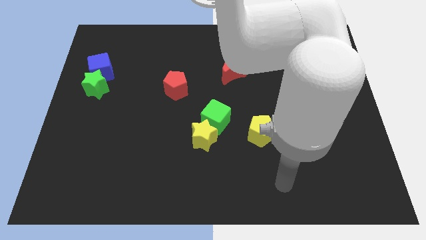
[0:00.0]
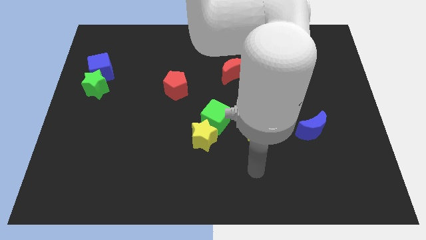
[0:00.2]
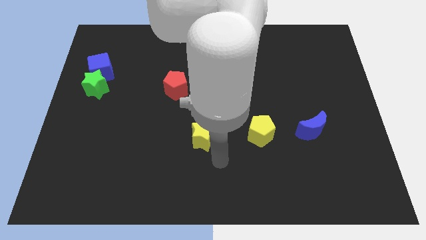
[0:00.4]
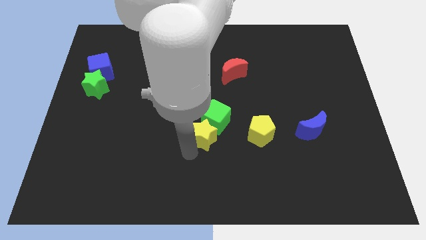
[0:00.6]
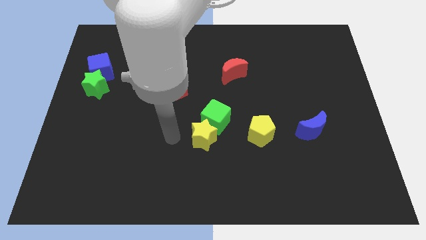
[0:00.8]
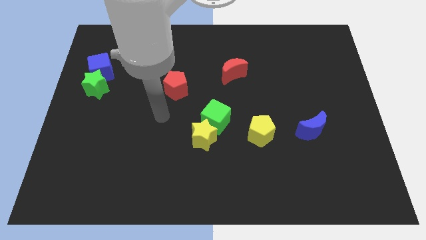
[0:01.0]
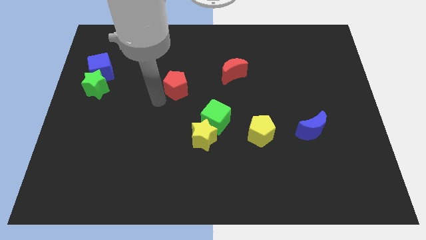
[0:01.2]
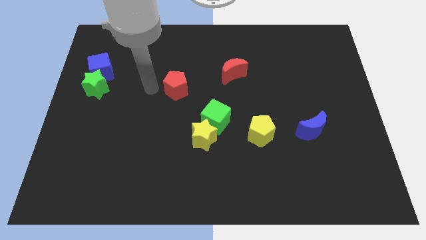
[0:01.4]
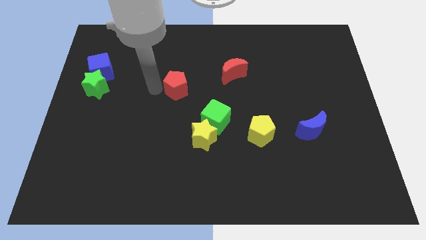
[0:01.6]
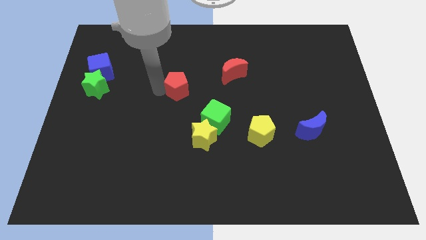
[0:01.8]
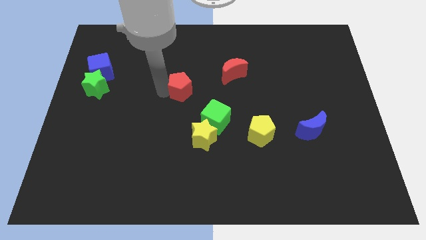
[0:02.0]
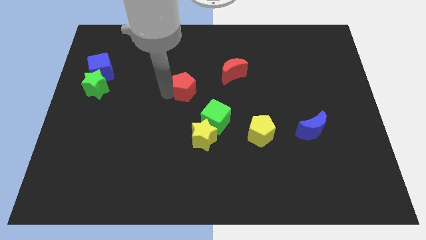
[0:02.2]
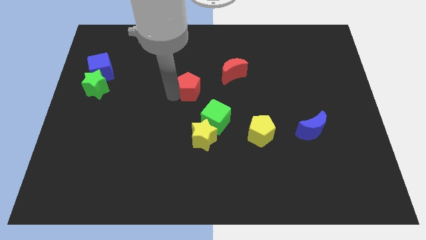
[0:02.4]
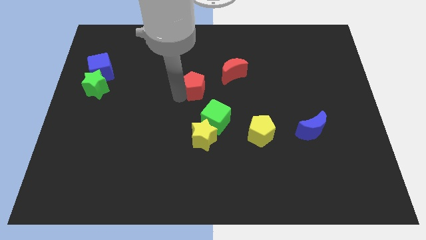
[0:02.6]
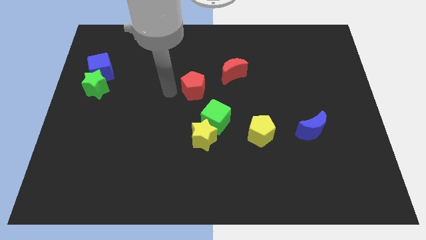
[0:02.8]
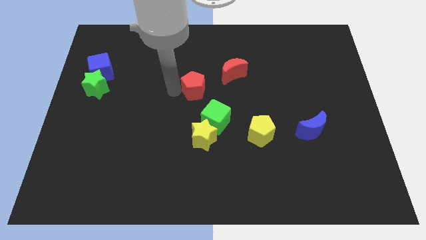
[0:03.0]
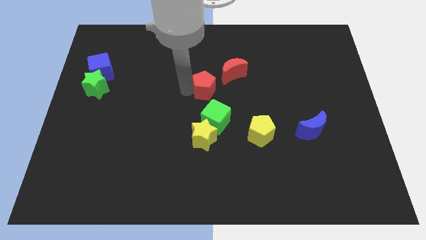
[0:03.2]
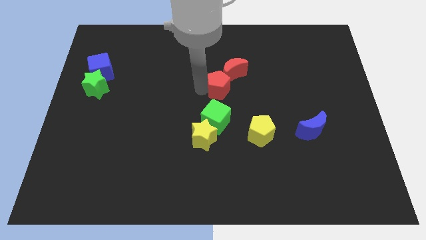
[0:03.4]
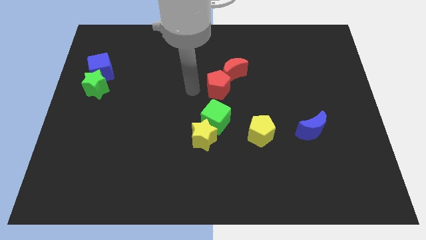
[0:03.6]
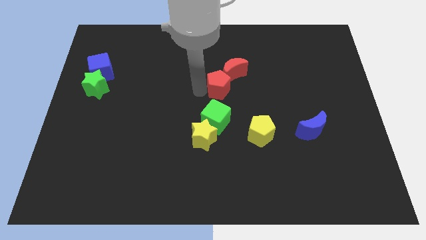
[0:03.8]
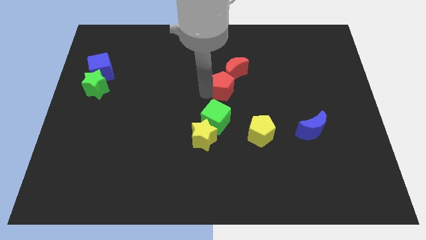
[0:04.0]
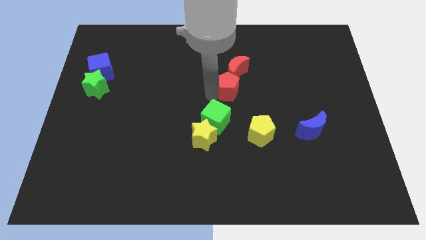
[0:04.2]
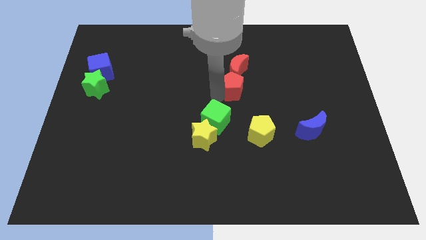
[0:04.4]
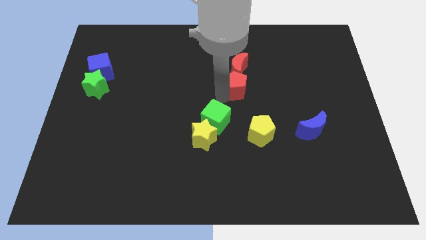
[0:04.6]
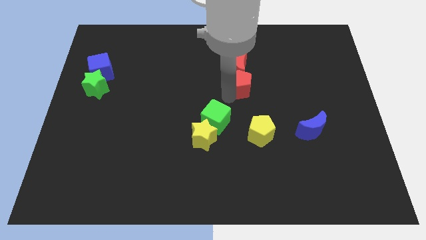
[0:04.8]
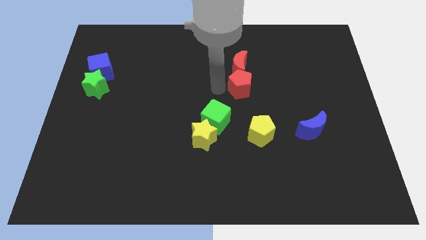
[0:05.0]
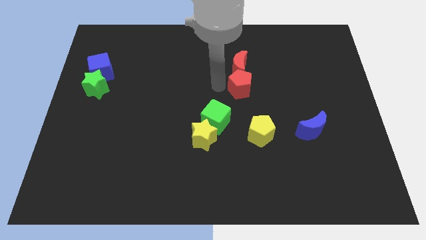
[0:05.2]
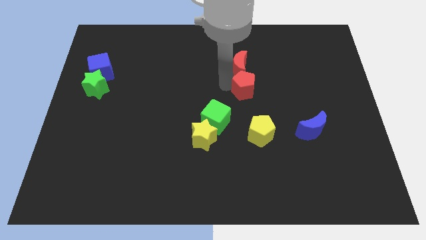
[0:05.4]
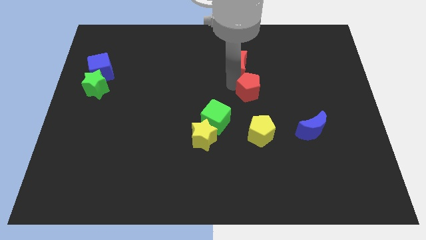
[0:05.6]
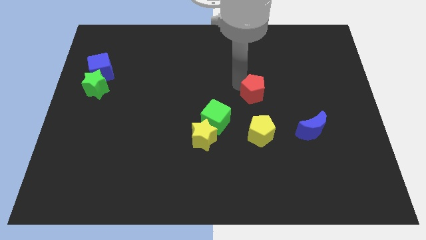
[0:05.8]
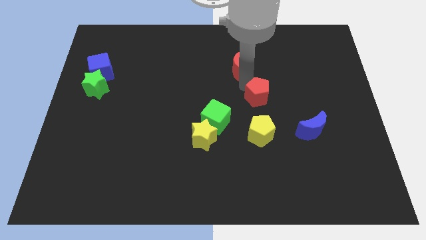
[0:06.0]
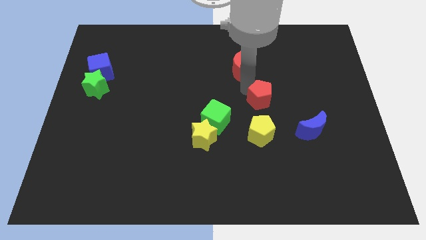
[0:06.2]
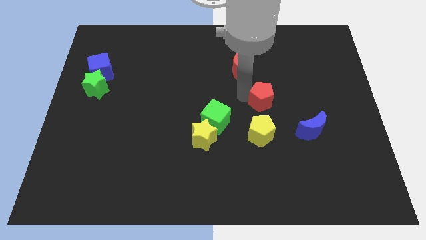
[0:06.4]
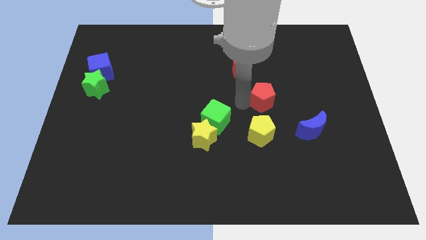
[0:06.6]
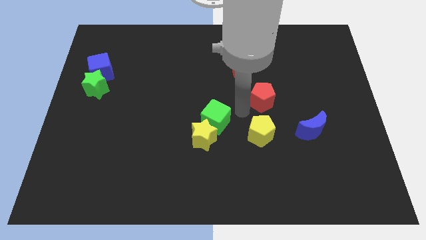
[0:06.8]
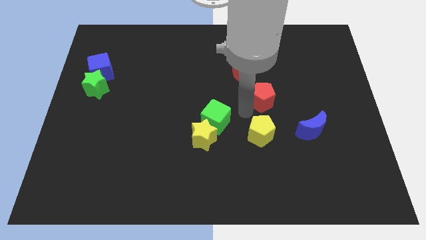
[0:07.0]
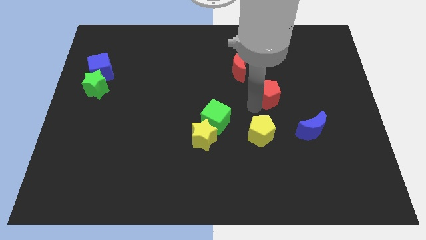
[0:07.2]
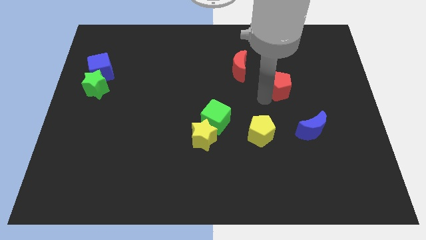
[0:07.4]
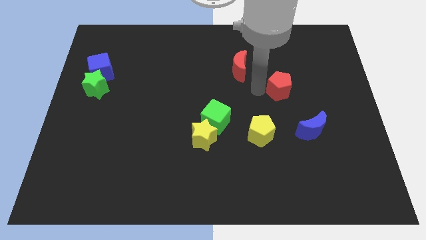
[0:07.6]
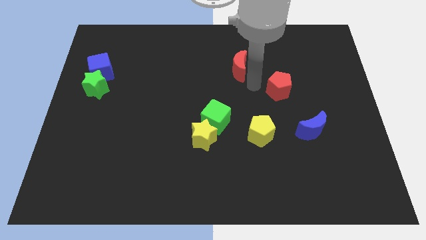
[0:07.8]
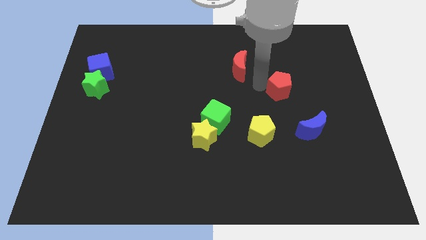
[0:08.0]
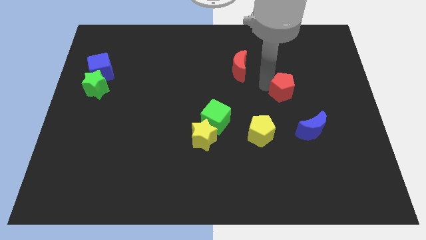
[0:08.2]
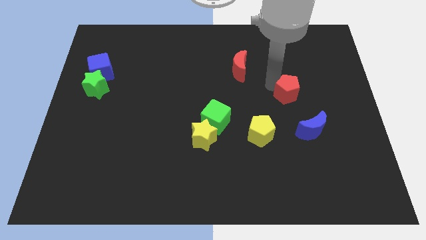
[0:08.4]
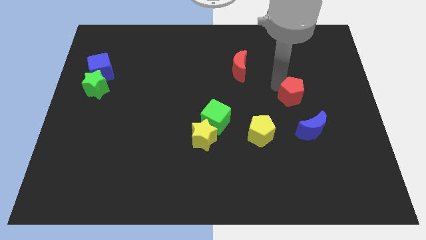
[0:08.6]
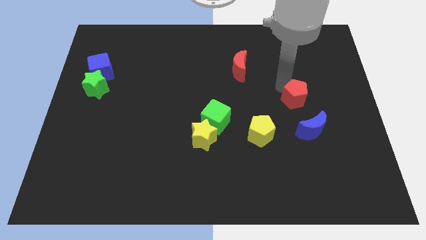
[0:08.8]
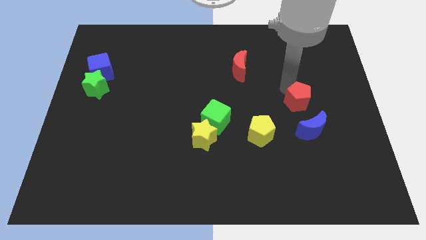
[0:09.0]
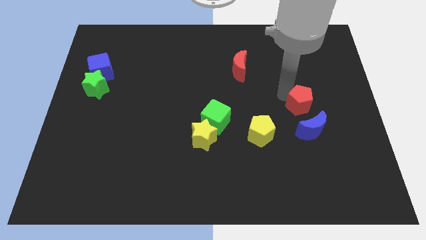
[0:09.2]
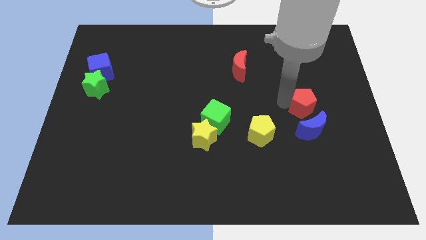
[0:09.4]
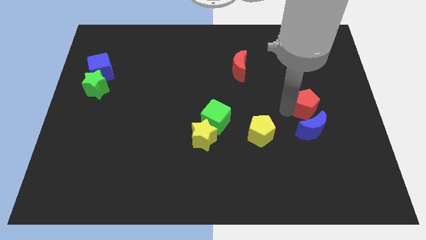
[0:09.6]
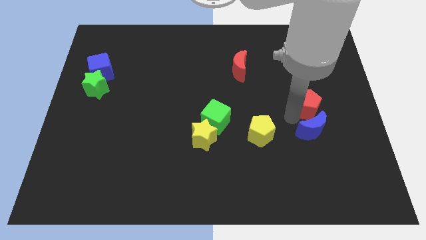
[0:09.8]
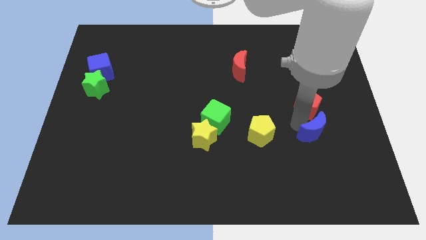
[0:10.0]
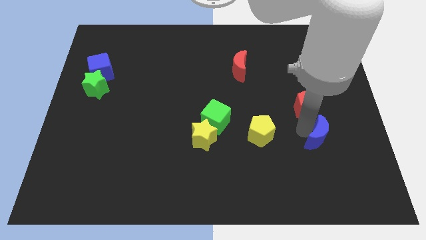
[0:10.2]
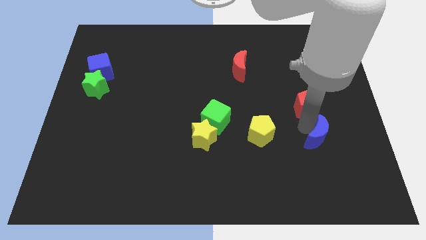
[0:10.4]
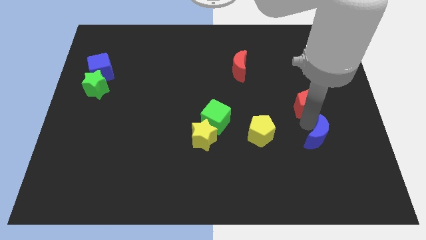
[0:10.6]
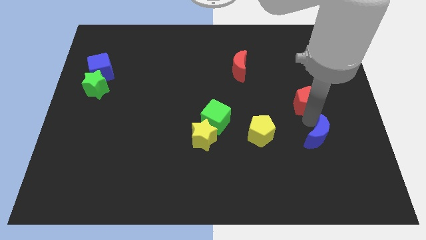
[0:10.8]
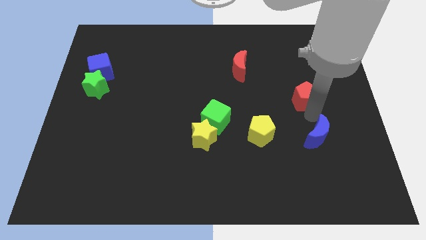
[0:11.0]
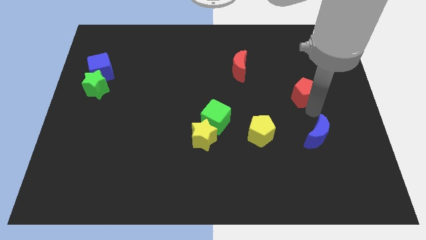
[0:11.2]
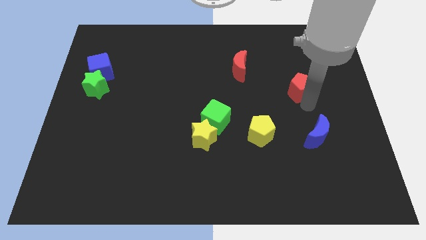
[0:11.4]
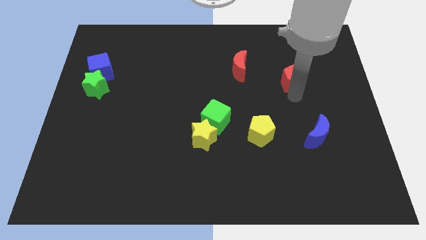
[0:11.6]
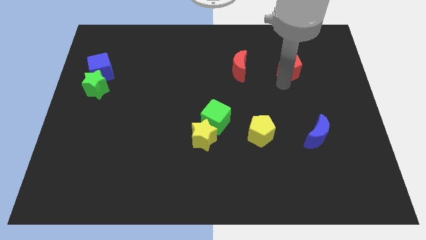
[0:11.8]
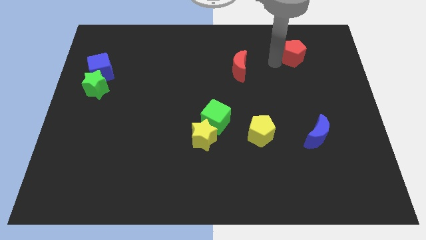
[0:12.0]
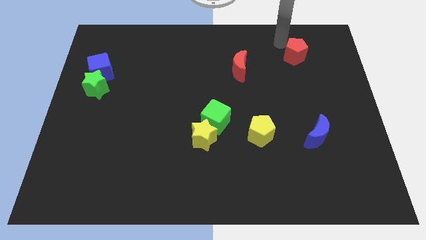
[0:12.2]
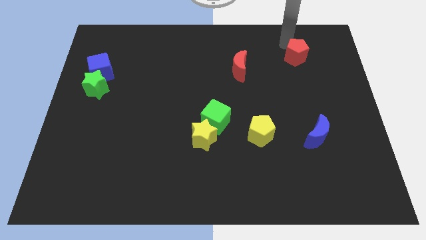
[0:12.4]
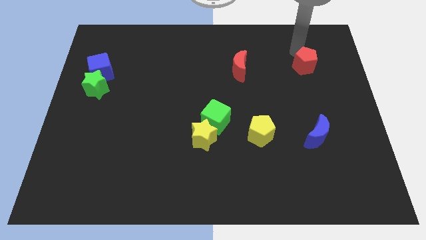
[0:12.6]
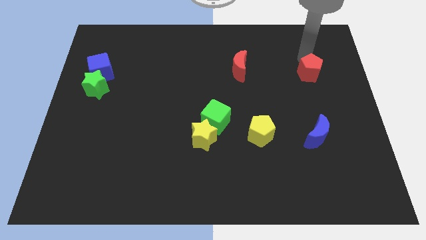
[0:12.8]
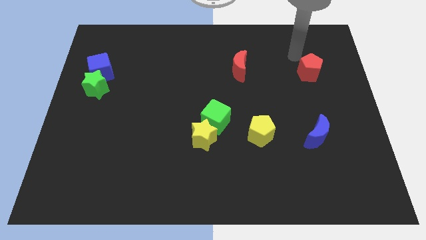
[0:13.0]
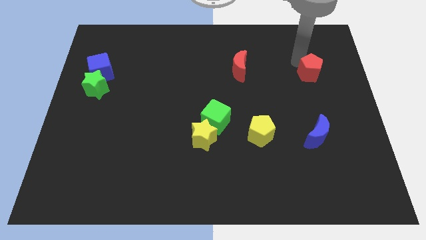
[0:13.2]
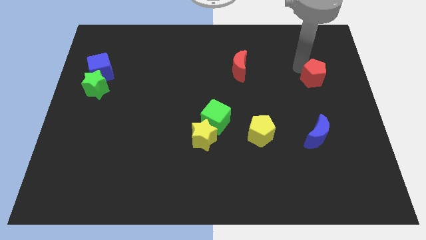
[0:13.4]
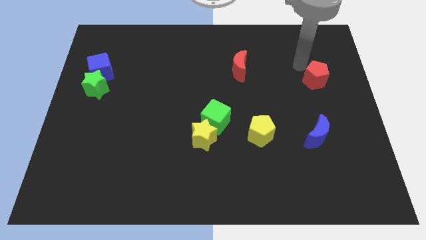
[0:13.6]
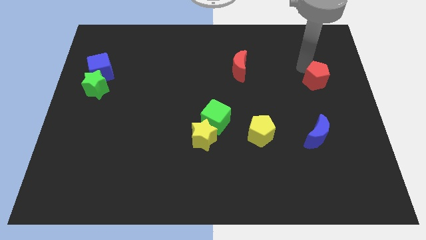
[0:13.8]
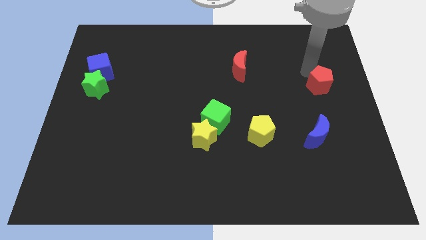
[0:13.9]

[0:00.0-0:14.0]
put the red pentagon to the right side
